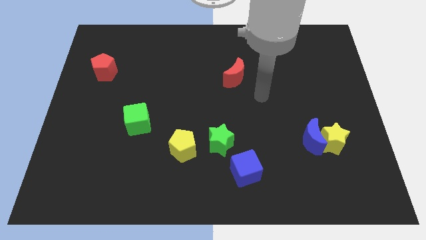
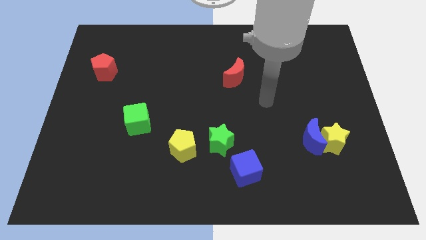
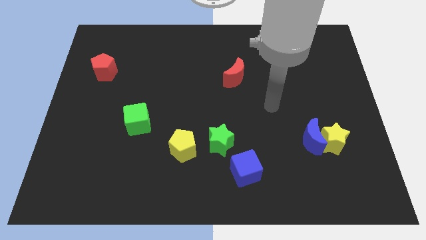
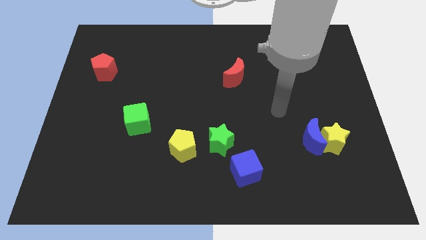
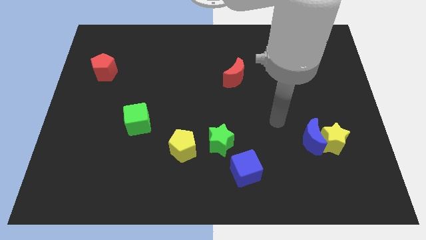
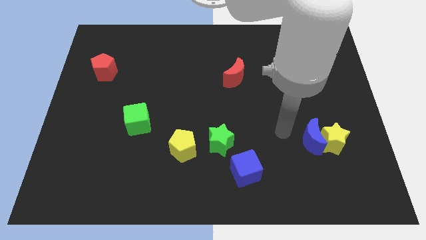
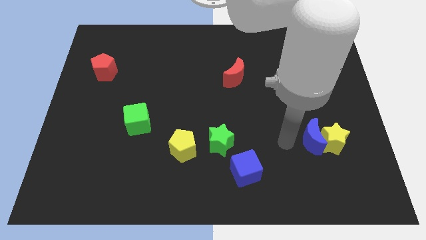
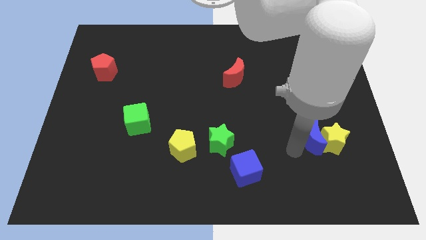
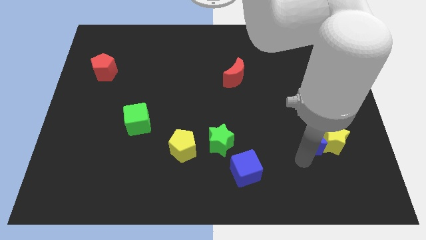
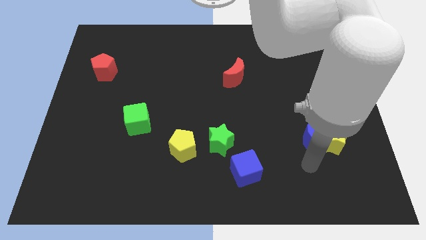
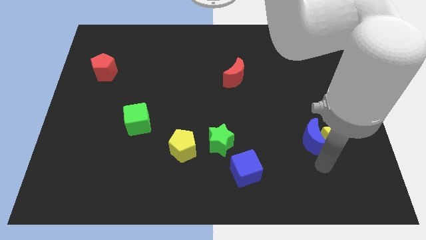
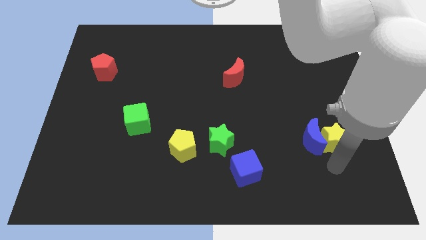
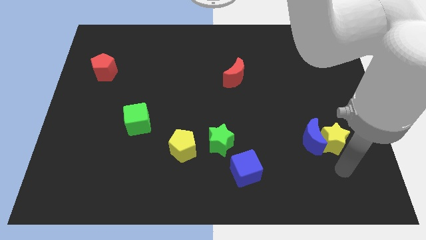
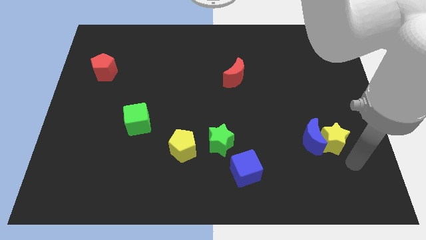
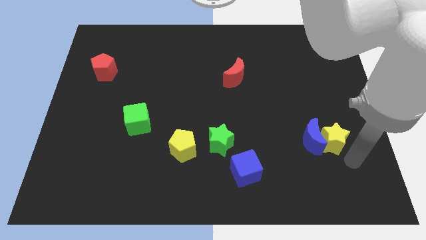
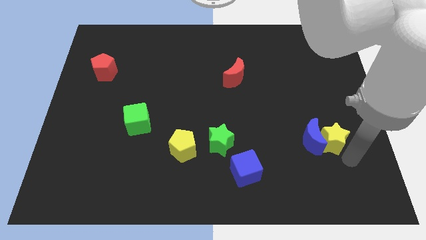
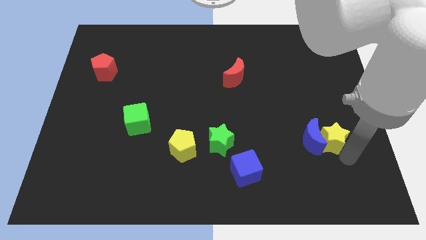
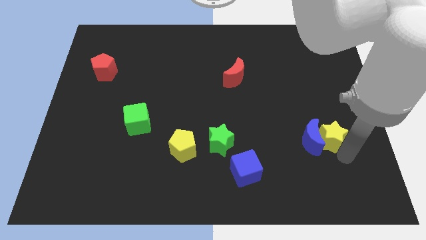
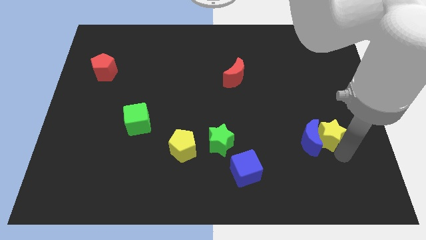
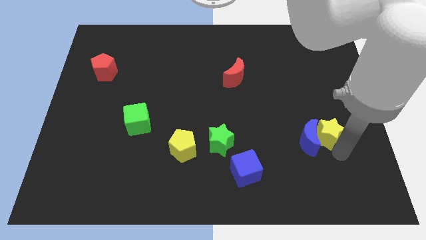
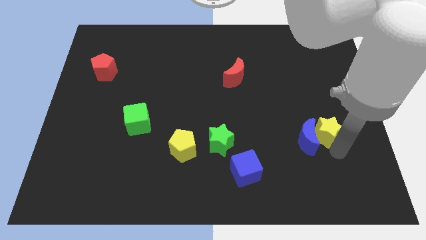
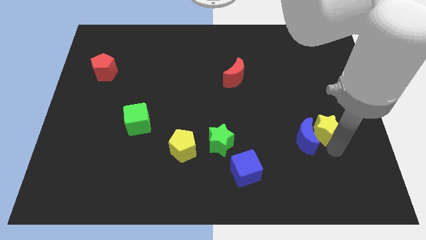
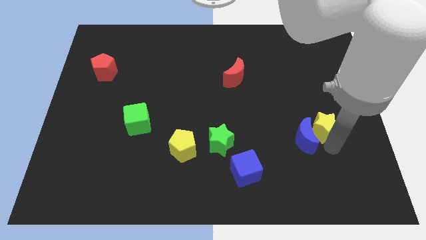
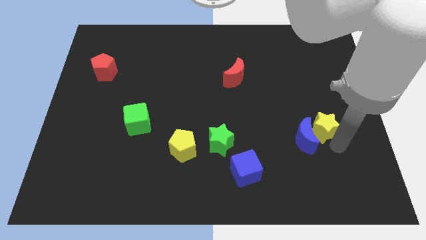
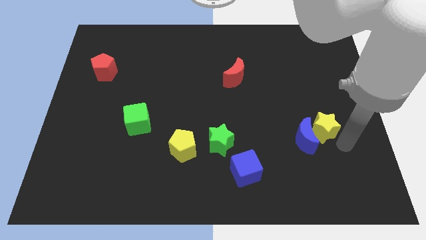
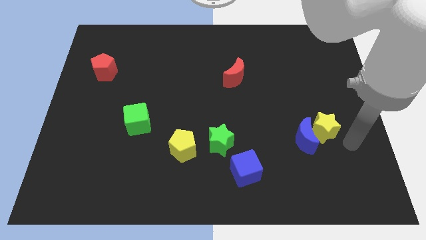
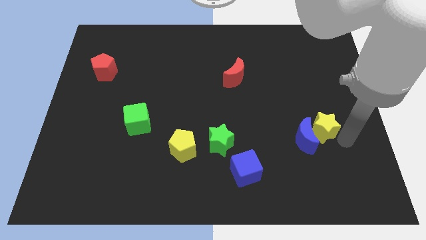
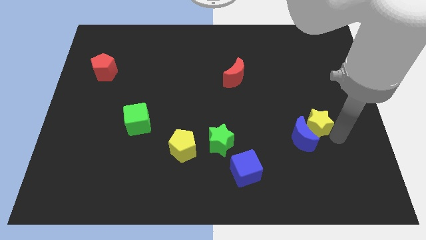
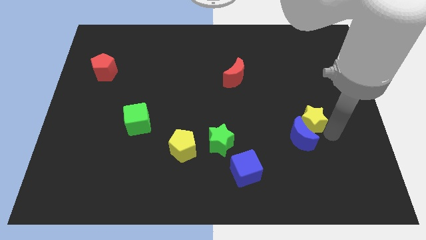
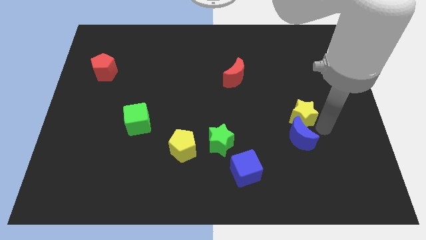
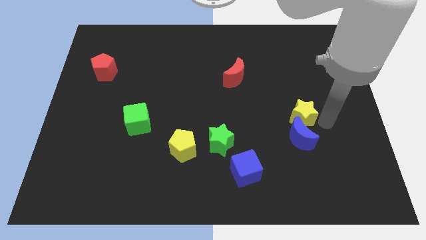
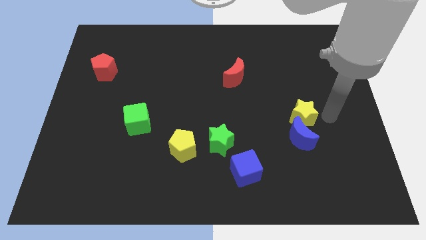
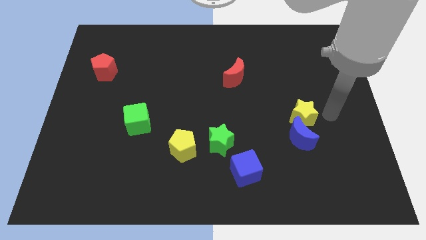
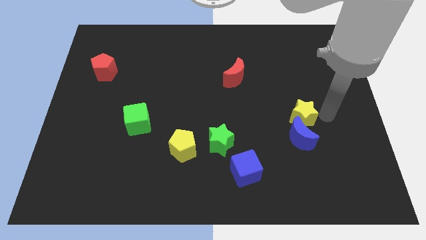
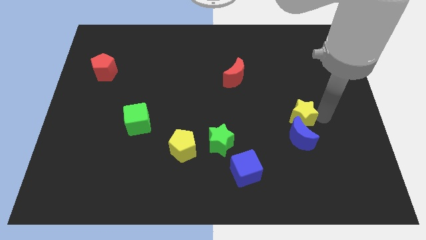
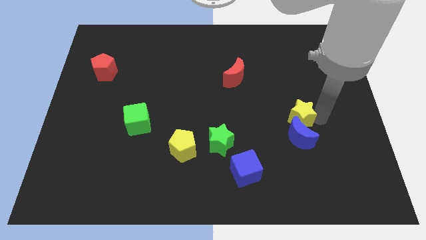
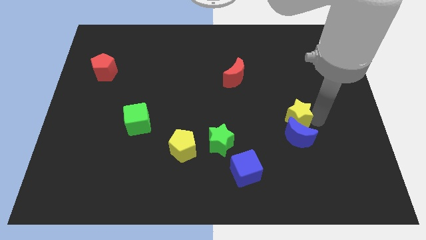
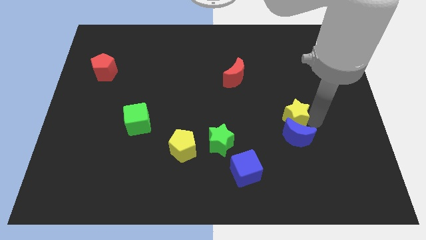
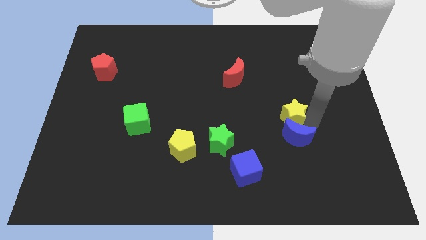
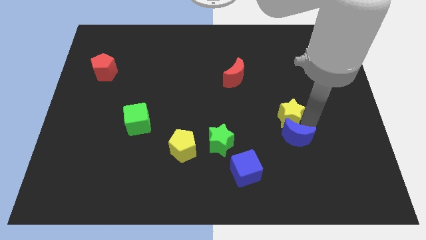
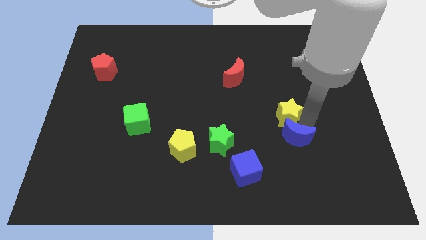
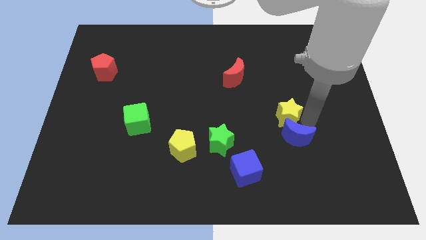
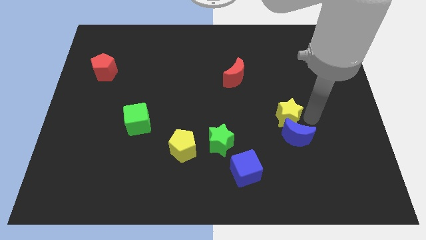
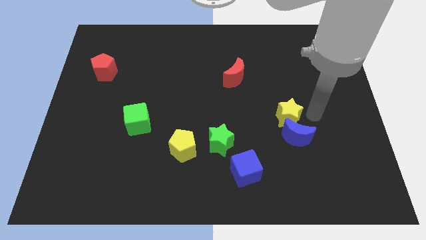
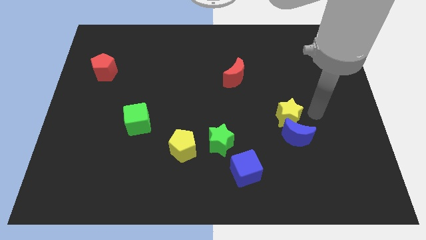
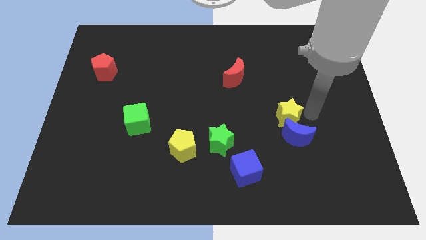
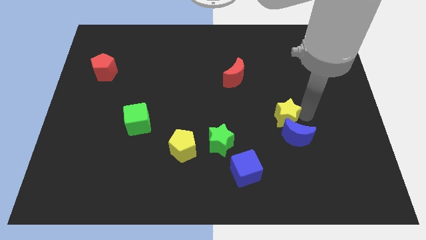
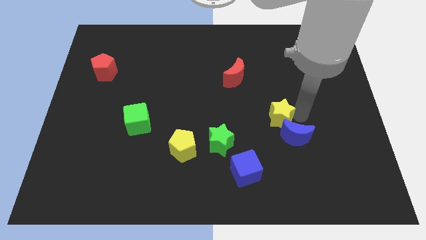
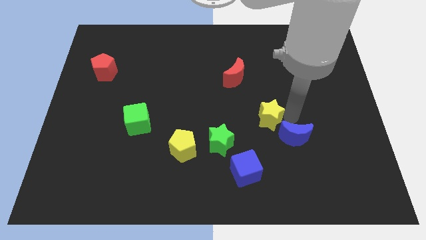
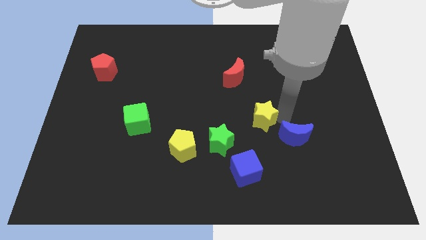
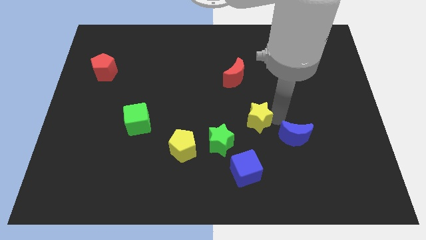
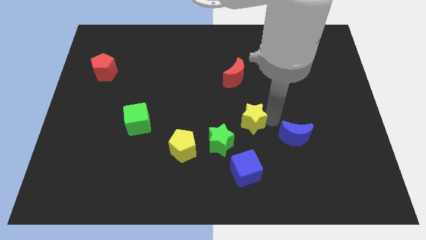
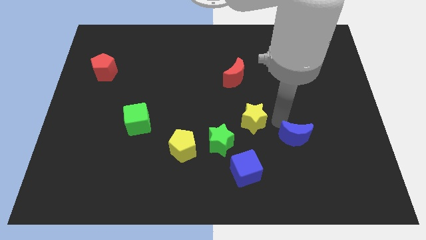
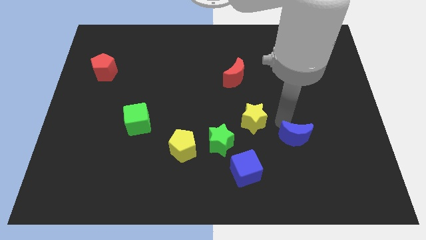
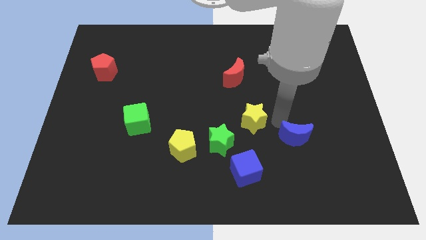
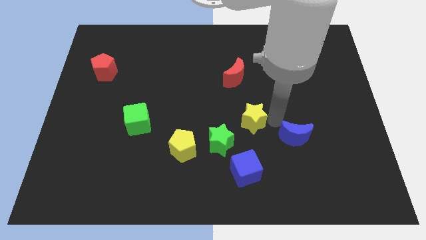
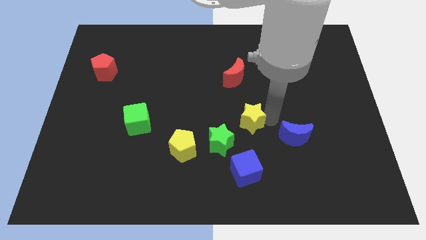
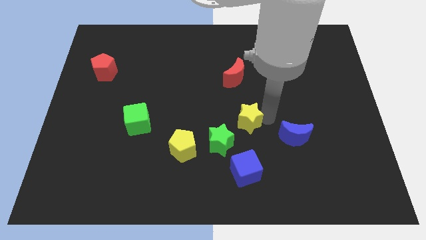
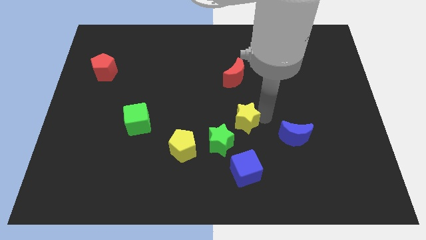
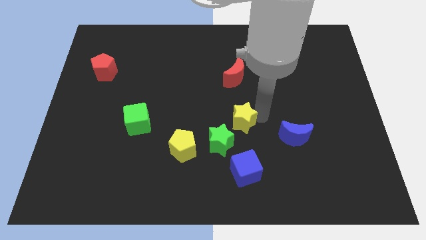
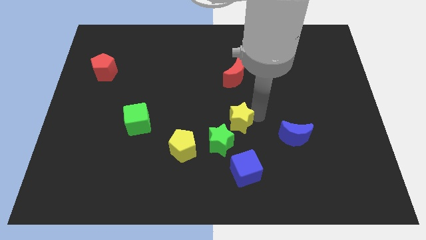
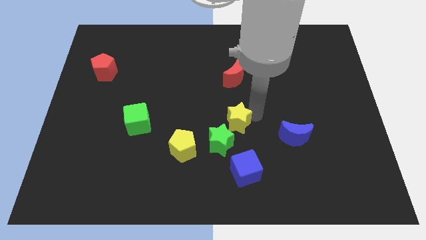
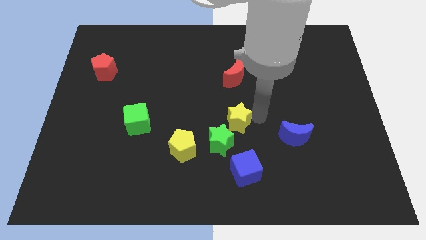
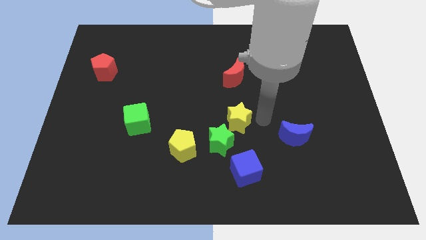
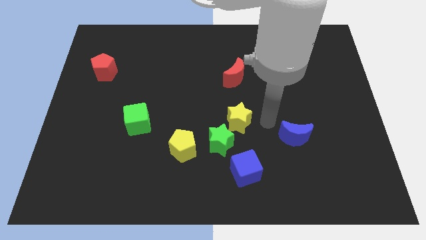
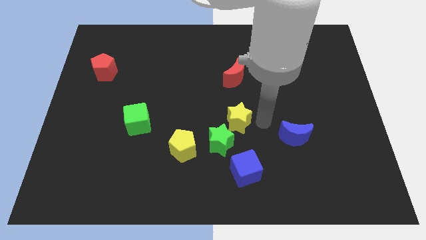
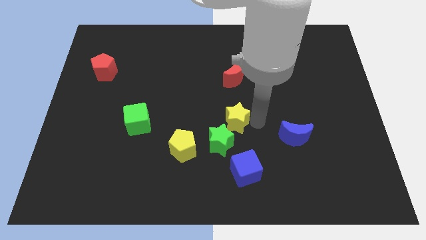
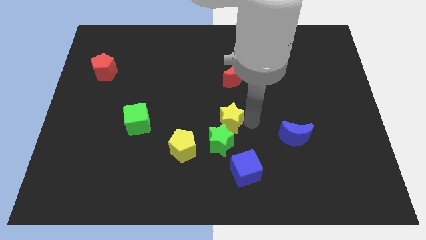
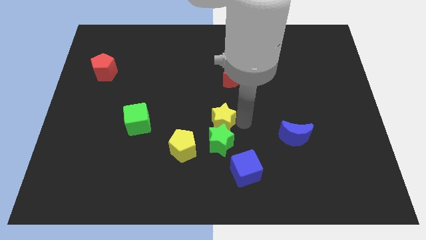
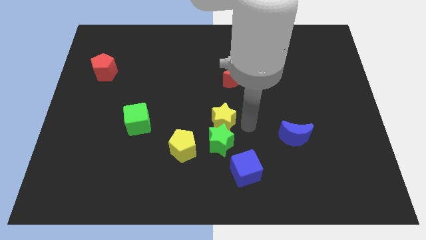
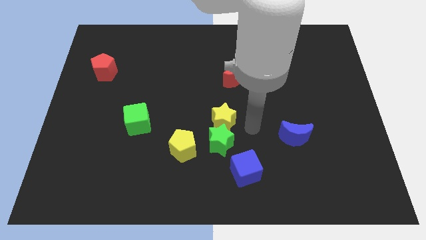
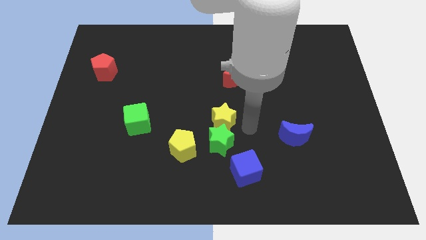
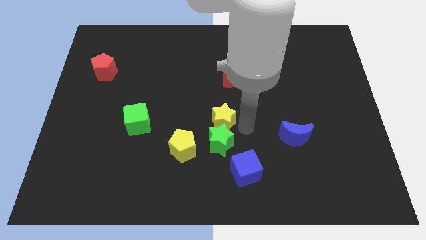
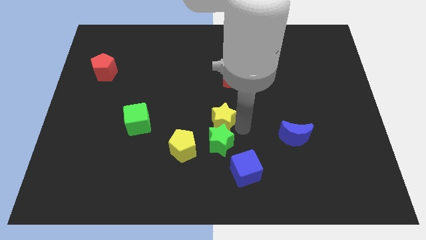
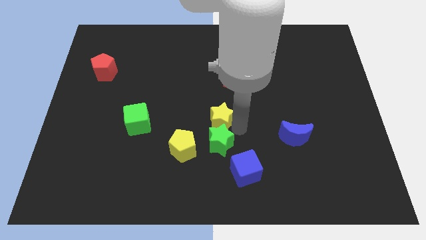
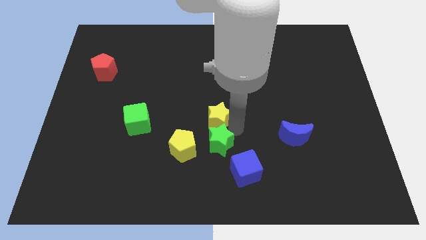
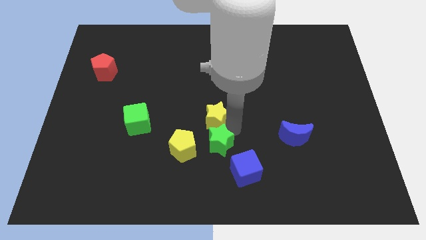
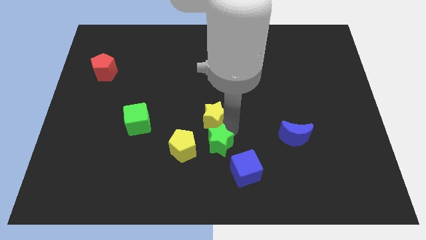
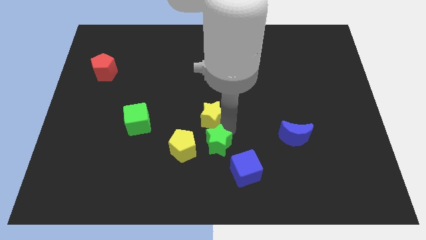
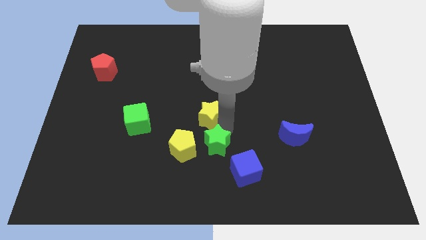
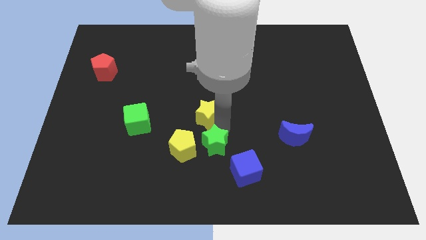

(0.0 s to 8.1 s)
push the yellow star right of the green cube
